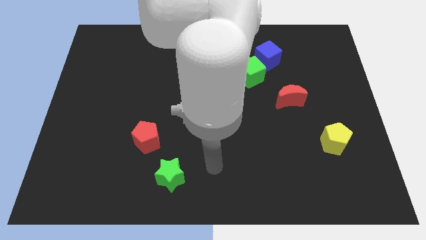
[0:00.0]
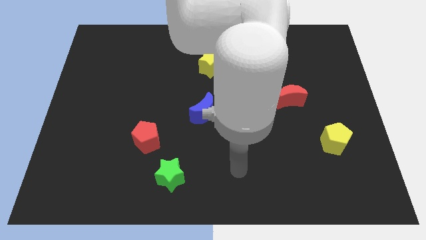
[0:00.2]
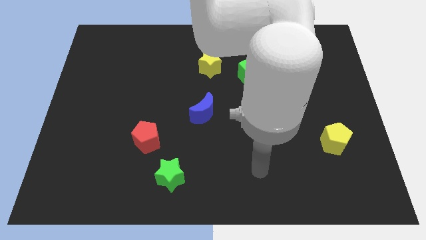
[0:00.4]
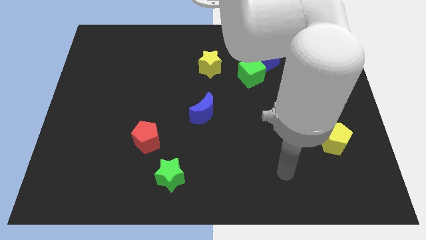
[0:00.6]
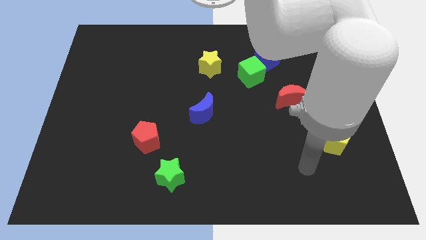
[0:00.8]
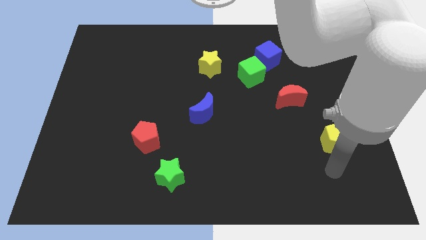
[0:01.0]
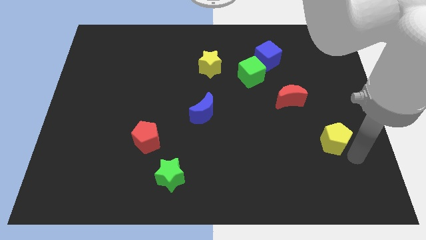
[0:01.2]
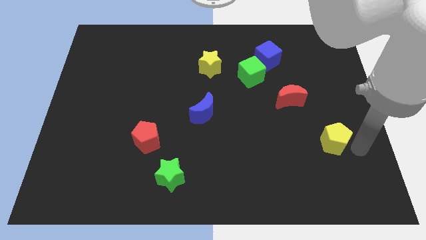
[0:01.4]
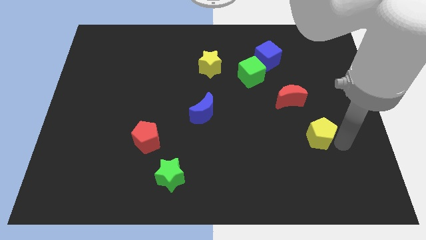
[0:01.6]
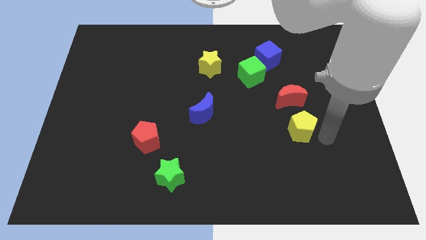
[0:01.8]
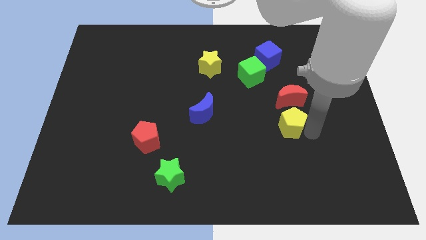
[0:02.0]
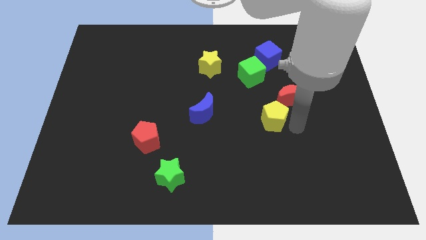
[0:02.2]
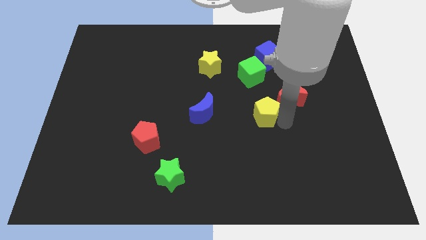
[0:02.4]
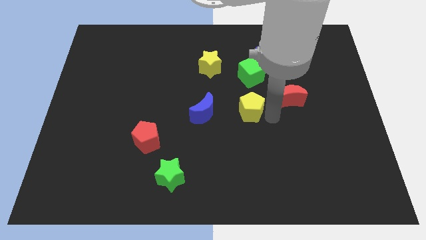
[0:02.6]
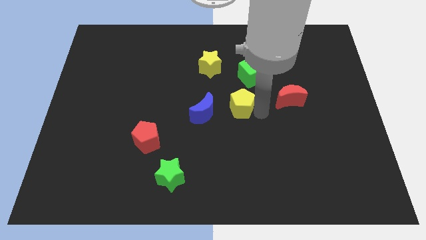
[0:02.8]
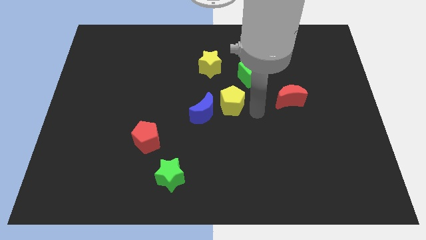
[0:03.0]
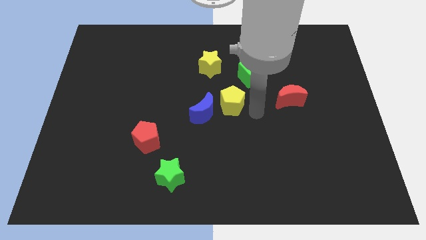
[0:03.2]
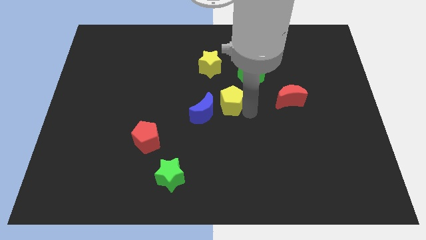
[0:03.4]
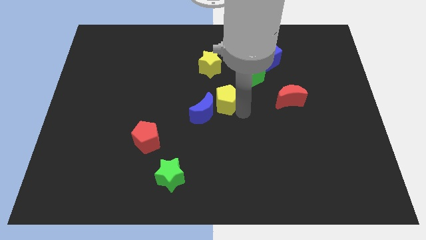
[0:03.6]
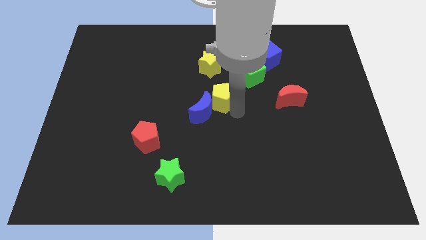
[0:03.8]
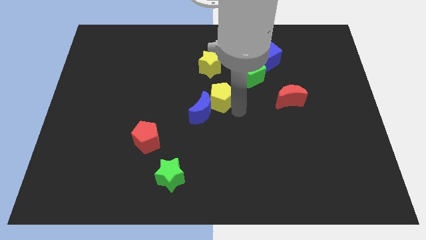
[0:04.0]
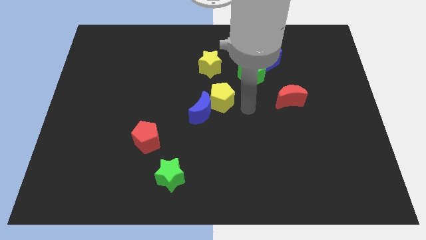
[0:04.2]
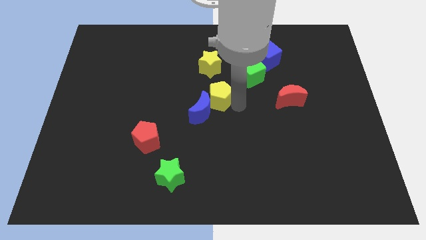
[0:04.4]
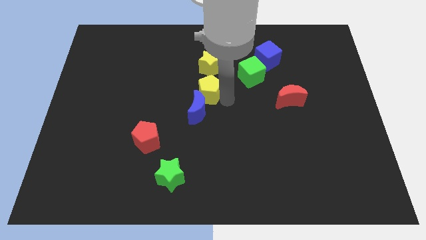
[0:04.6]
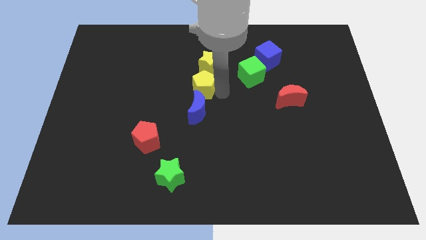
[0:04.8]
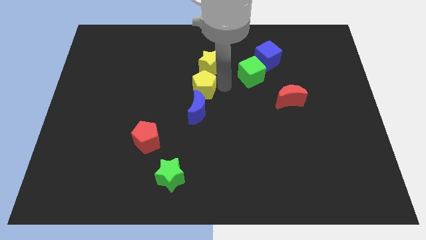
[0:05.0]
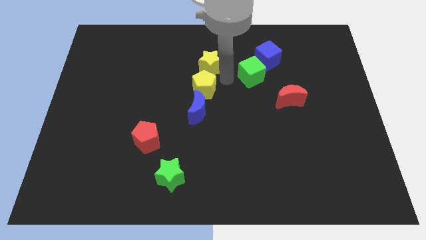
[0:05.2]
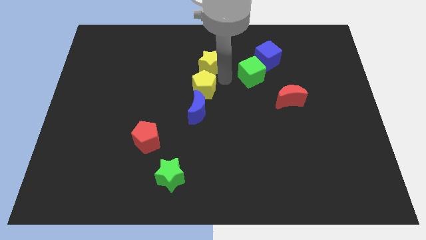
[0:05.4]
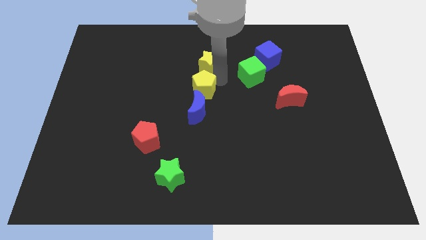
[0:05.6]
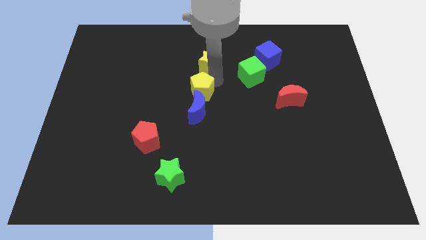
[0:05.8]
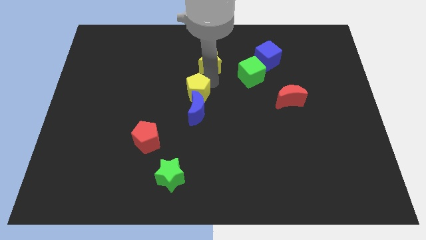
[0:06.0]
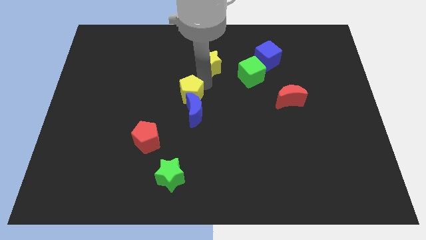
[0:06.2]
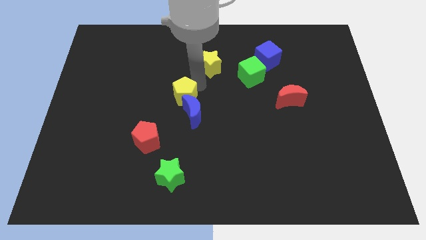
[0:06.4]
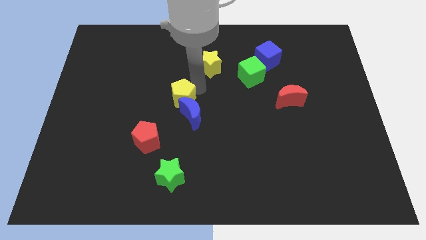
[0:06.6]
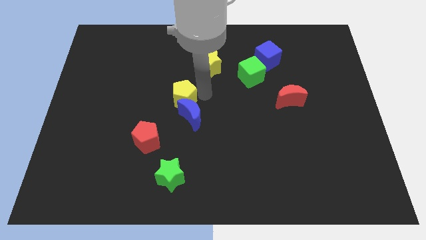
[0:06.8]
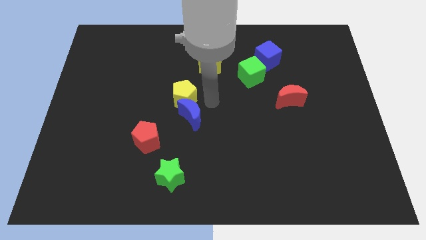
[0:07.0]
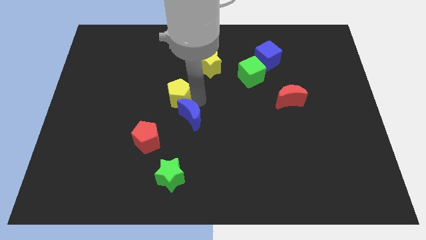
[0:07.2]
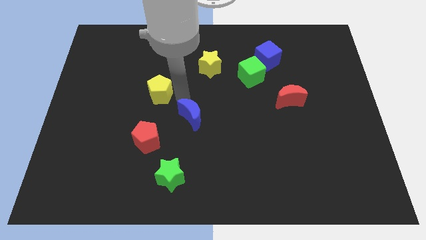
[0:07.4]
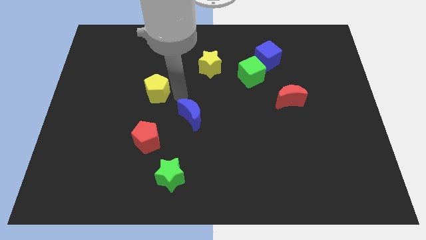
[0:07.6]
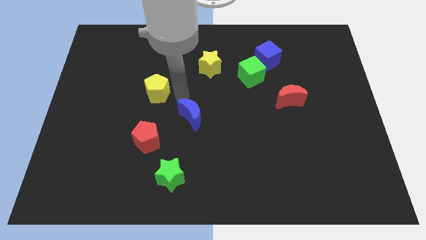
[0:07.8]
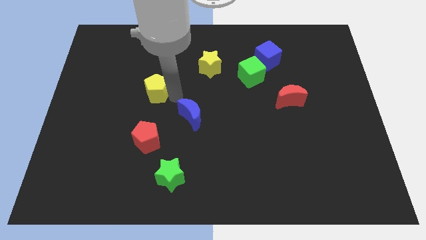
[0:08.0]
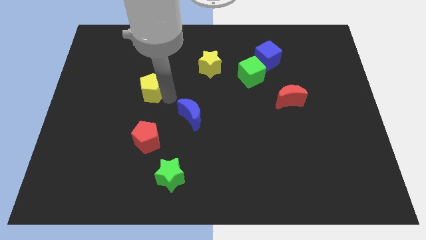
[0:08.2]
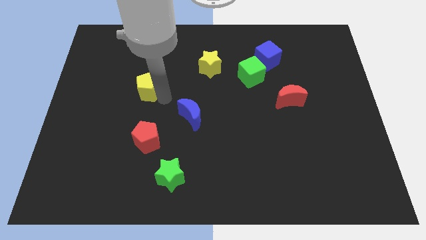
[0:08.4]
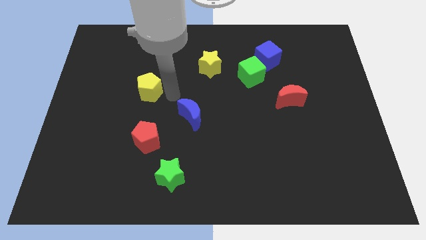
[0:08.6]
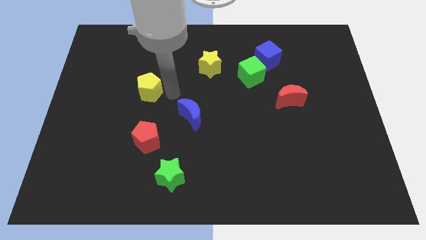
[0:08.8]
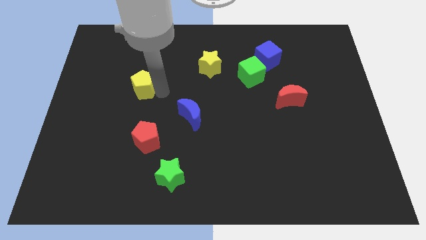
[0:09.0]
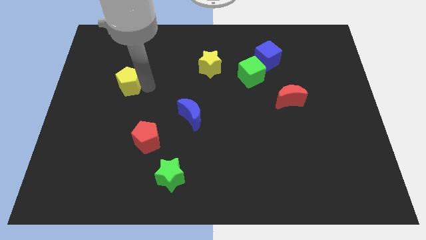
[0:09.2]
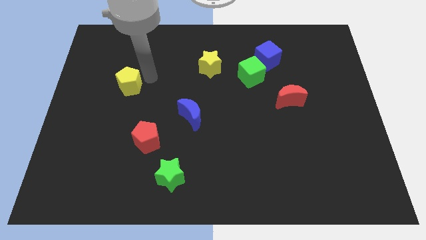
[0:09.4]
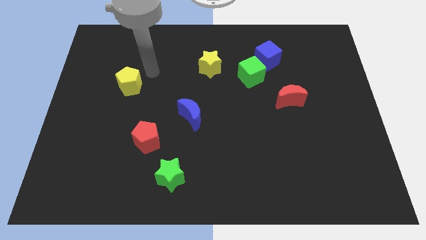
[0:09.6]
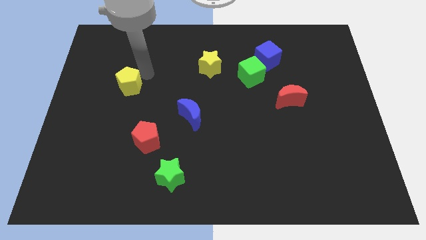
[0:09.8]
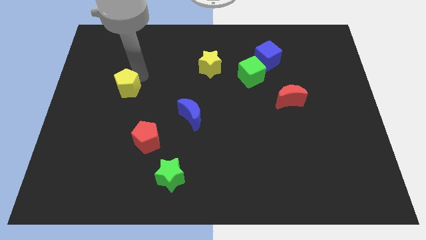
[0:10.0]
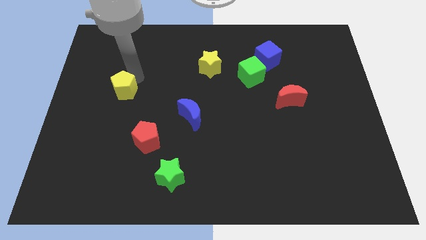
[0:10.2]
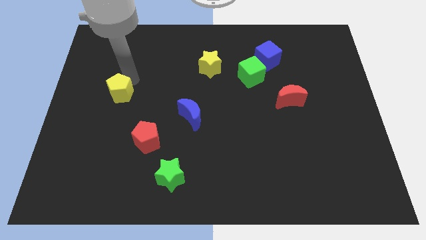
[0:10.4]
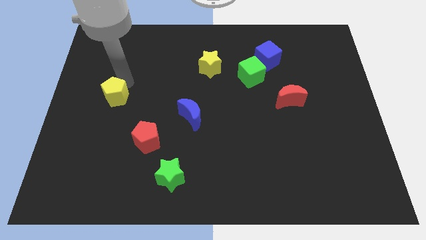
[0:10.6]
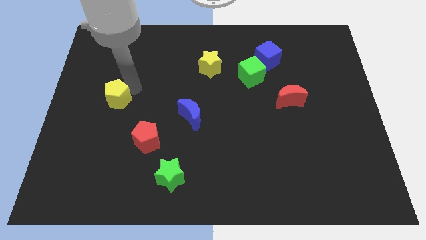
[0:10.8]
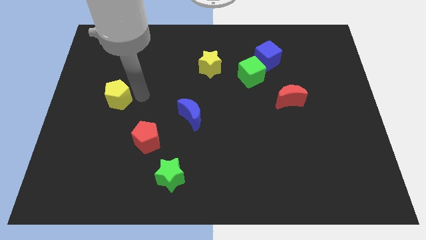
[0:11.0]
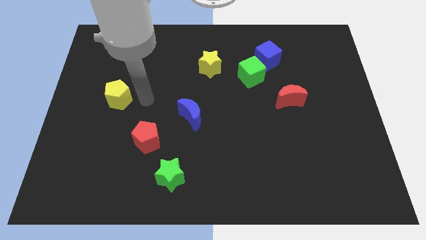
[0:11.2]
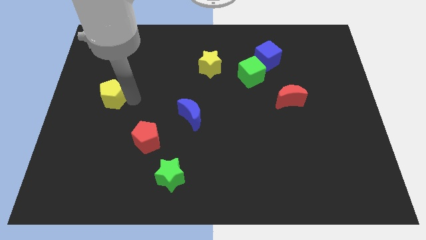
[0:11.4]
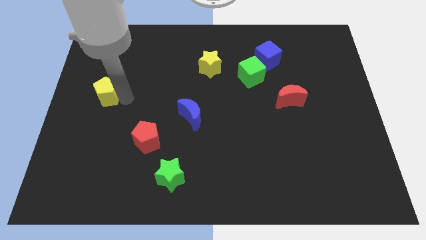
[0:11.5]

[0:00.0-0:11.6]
push the yellow pentagon to the left side

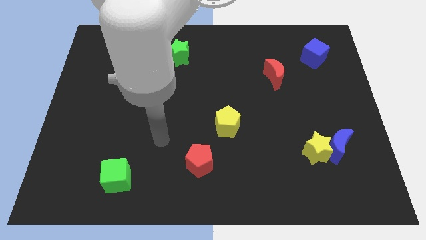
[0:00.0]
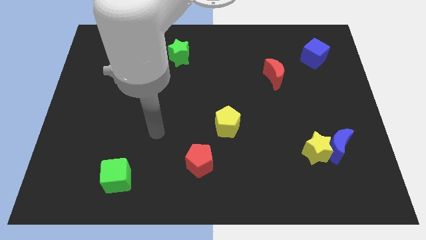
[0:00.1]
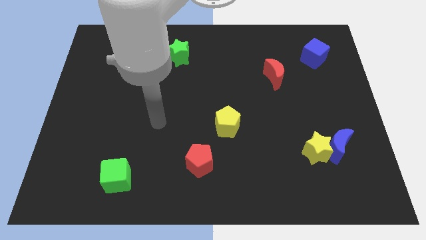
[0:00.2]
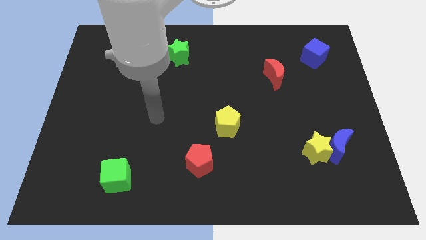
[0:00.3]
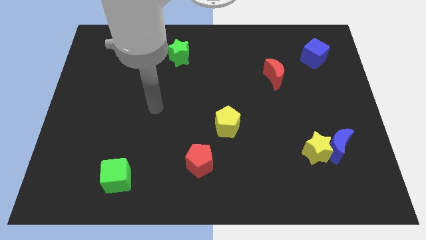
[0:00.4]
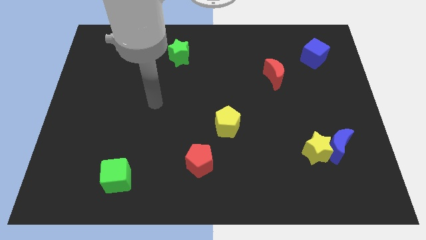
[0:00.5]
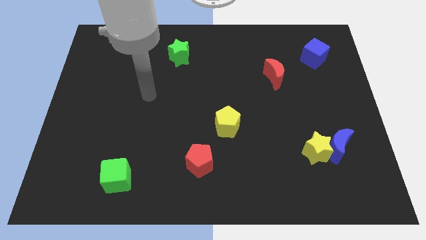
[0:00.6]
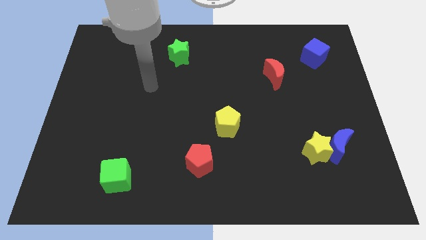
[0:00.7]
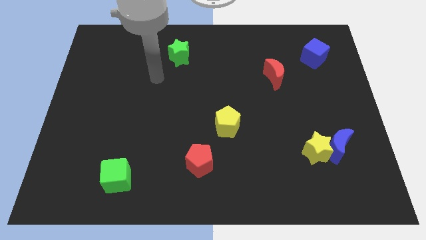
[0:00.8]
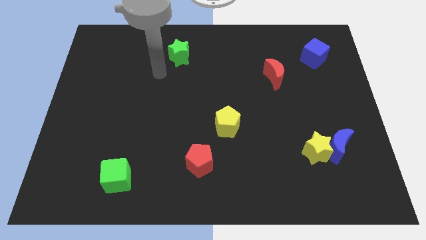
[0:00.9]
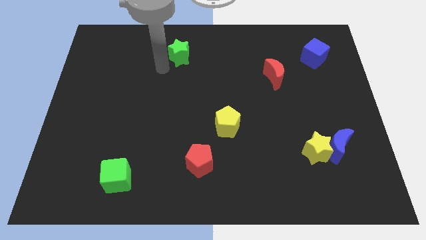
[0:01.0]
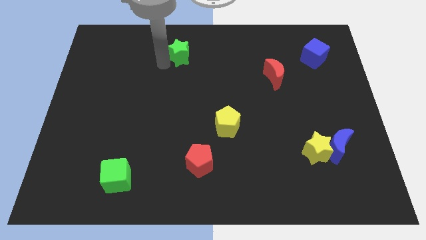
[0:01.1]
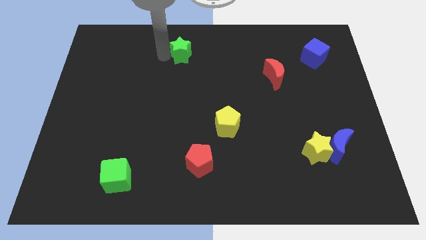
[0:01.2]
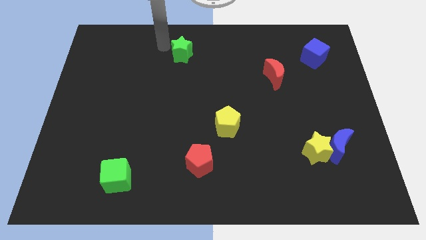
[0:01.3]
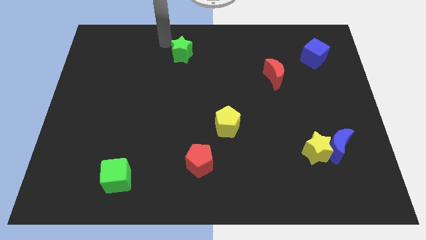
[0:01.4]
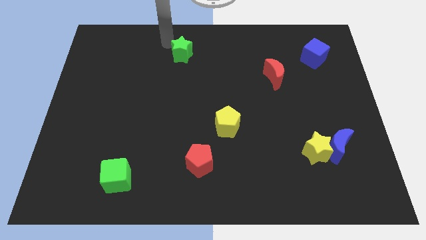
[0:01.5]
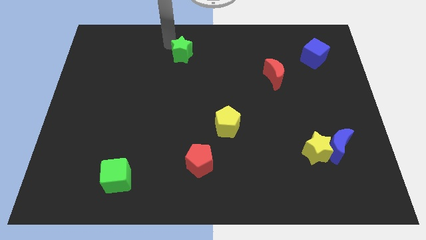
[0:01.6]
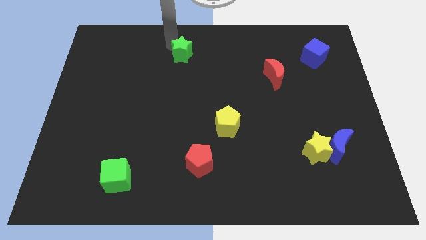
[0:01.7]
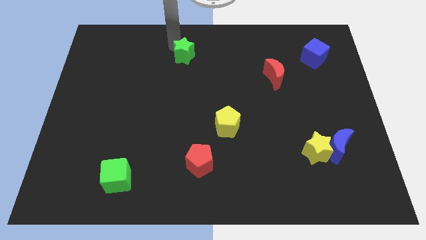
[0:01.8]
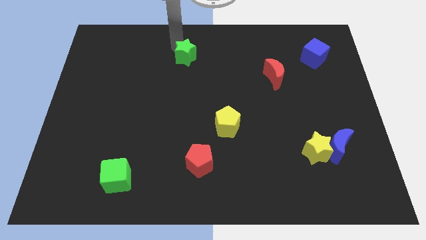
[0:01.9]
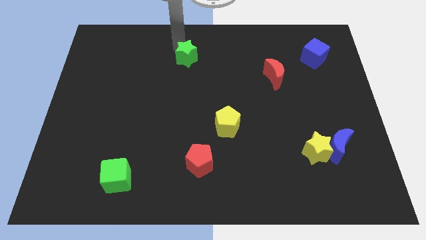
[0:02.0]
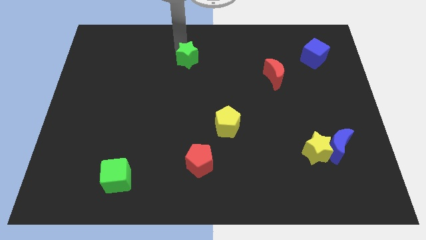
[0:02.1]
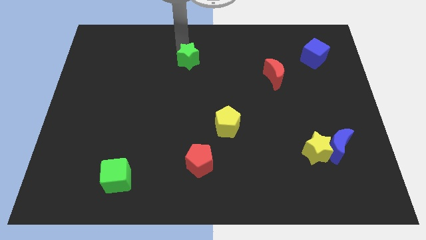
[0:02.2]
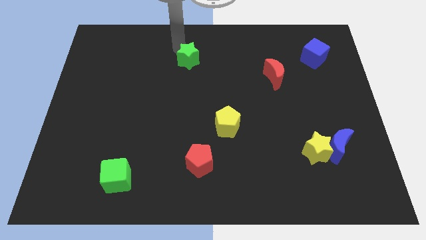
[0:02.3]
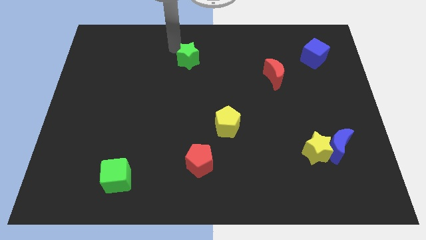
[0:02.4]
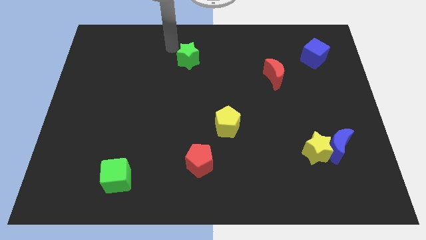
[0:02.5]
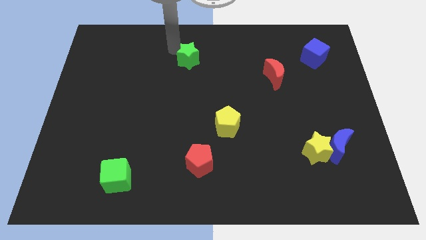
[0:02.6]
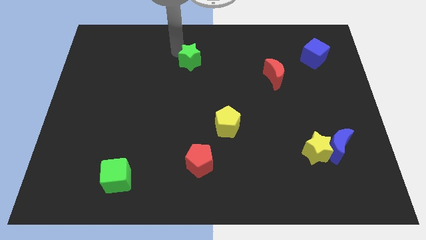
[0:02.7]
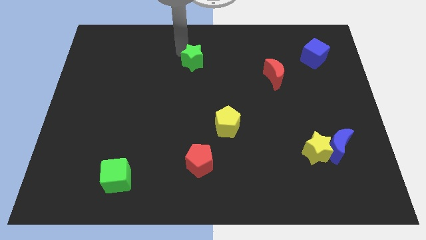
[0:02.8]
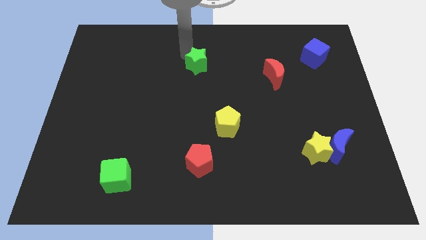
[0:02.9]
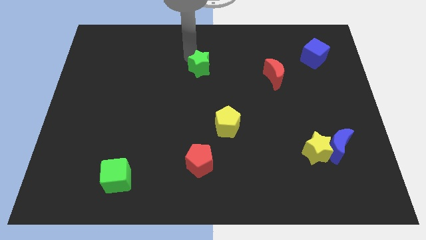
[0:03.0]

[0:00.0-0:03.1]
slide the green star to the center
